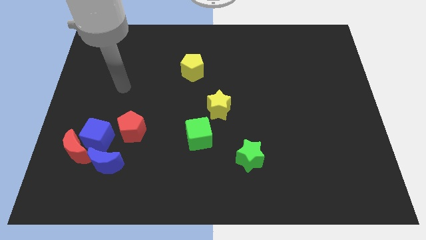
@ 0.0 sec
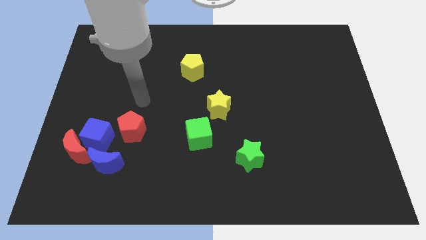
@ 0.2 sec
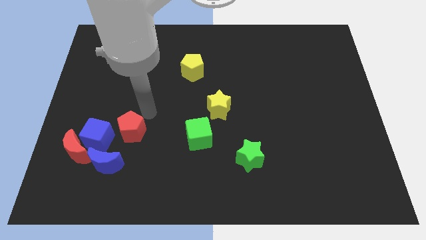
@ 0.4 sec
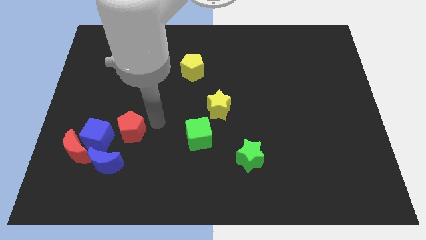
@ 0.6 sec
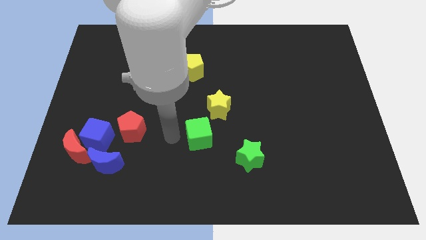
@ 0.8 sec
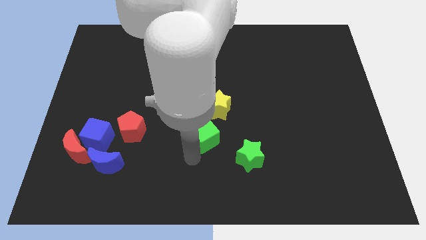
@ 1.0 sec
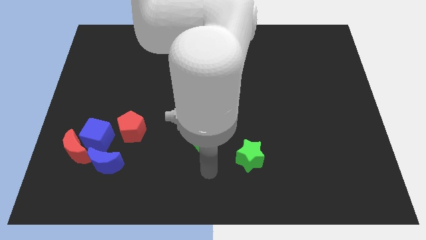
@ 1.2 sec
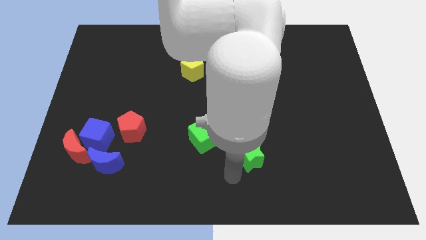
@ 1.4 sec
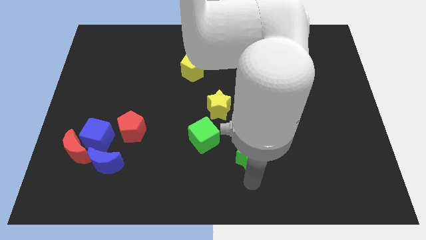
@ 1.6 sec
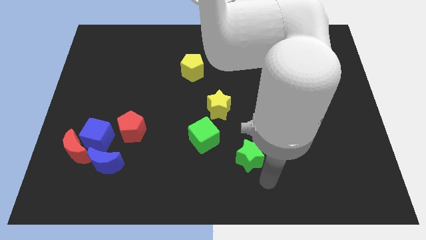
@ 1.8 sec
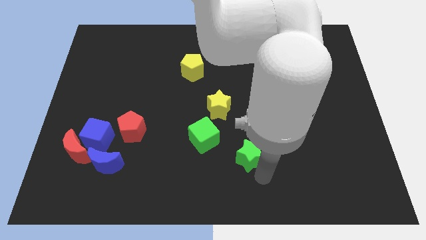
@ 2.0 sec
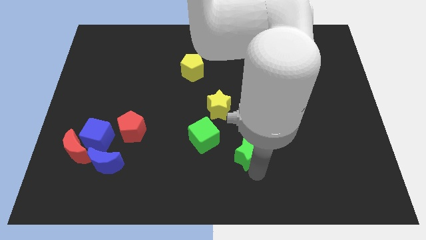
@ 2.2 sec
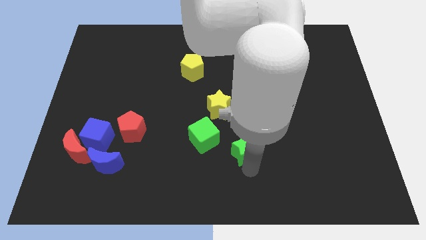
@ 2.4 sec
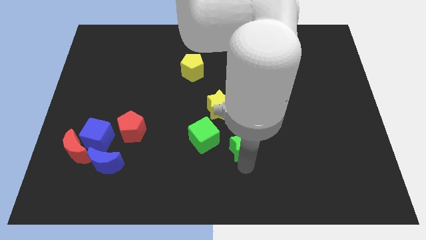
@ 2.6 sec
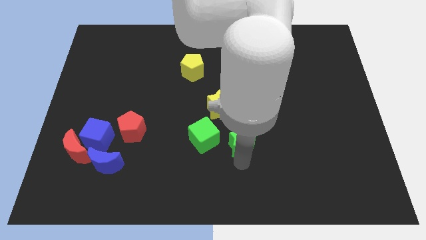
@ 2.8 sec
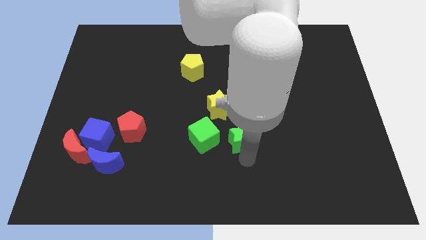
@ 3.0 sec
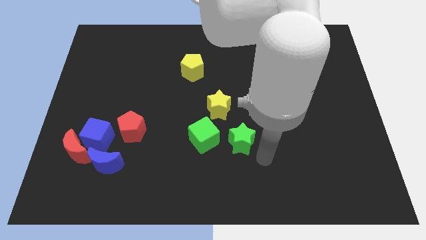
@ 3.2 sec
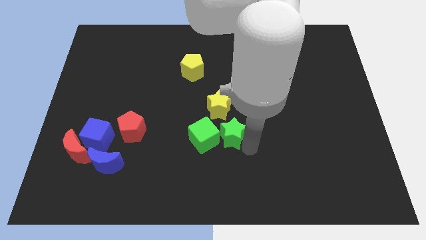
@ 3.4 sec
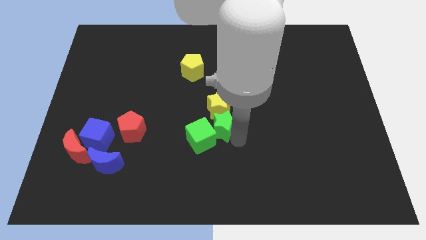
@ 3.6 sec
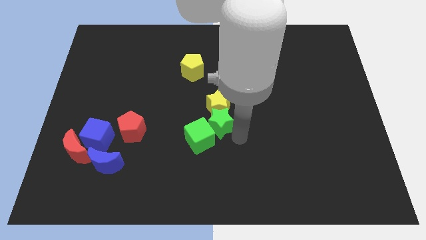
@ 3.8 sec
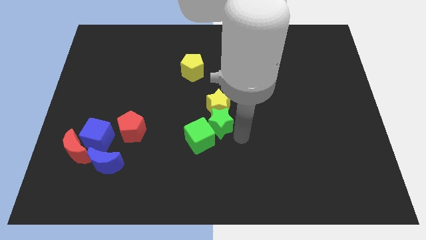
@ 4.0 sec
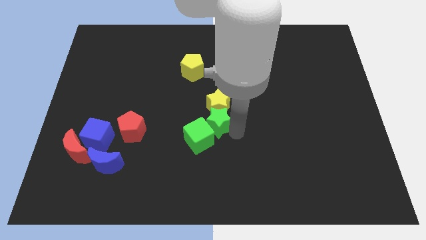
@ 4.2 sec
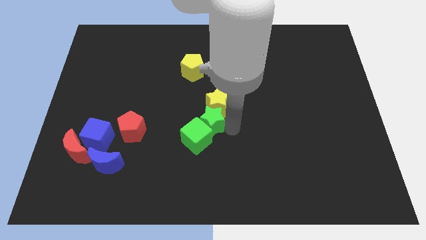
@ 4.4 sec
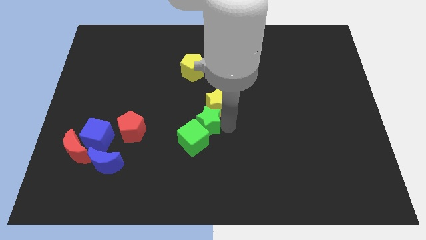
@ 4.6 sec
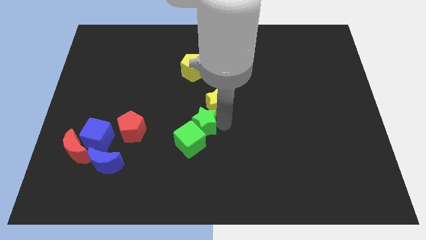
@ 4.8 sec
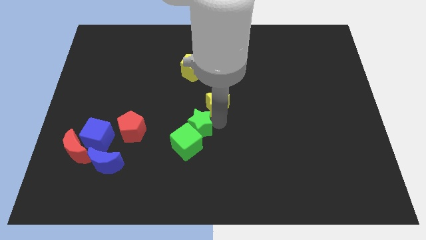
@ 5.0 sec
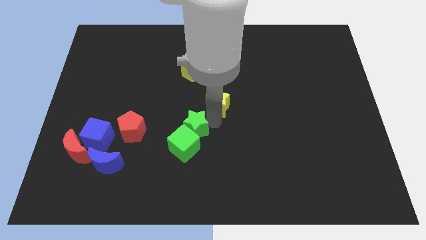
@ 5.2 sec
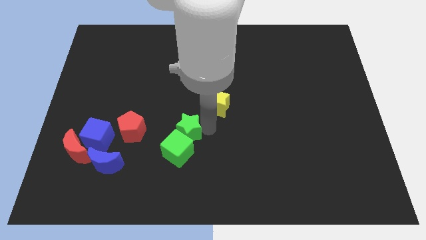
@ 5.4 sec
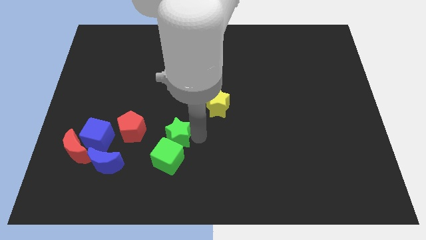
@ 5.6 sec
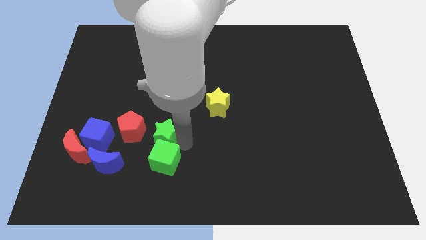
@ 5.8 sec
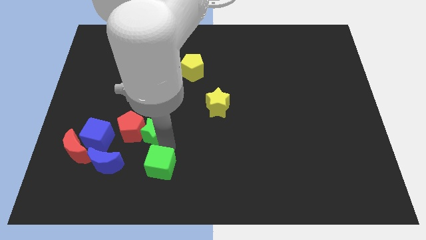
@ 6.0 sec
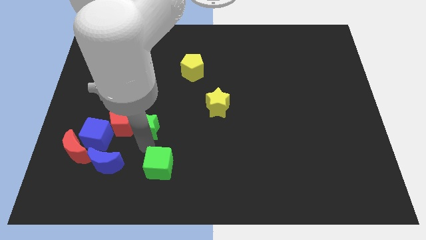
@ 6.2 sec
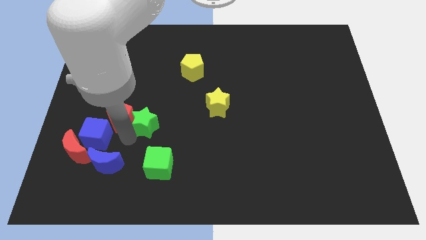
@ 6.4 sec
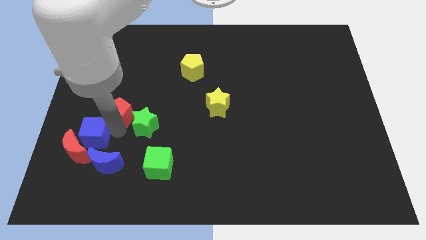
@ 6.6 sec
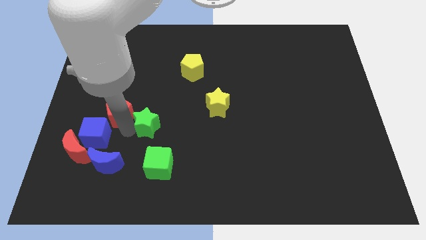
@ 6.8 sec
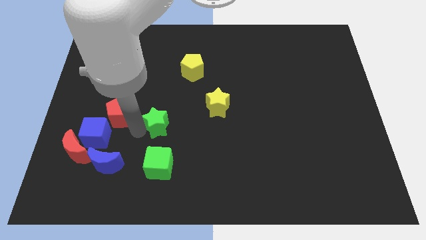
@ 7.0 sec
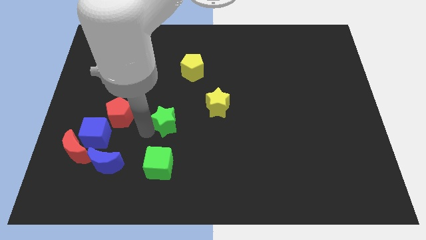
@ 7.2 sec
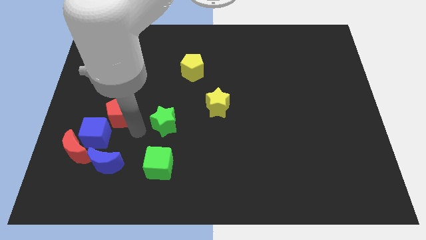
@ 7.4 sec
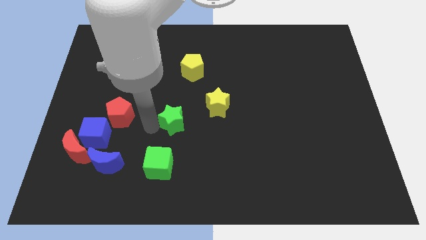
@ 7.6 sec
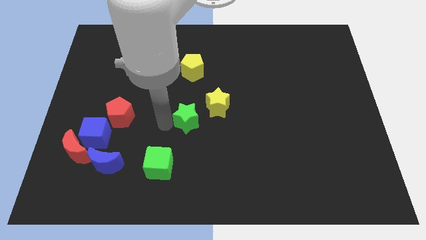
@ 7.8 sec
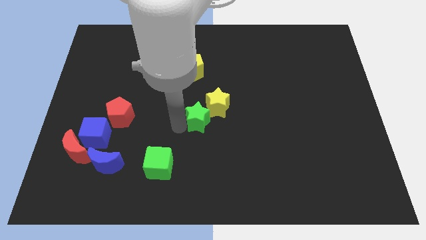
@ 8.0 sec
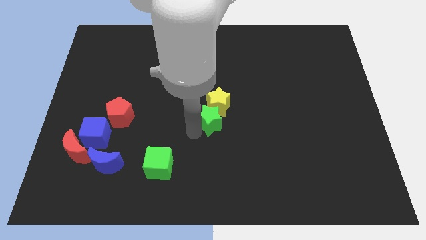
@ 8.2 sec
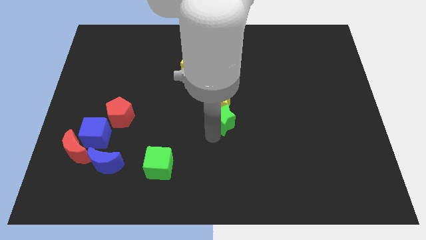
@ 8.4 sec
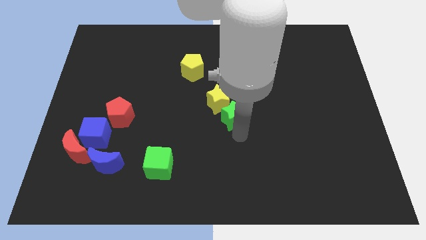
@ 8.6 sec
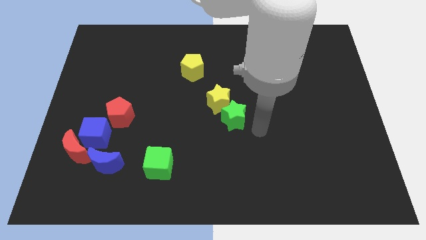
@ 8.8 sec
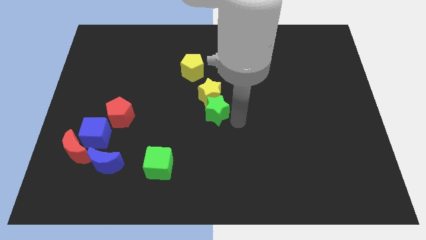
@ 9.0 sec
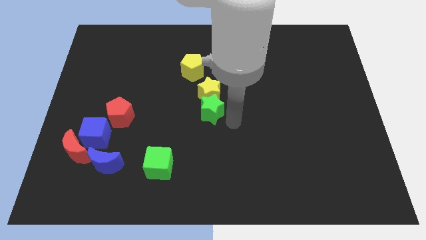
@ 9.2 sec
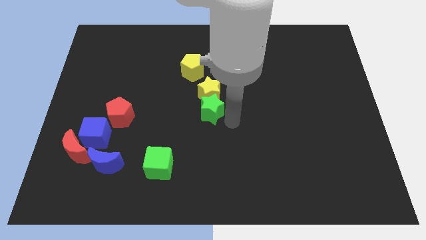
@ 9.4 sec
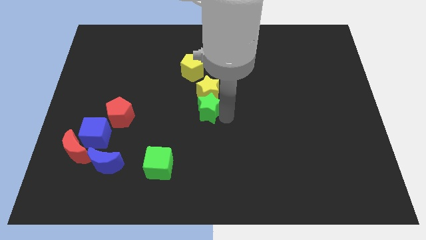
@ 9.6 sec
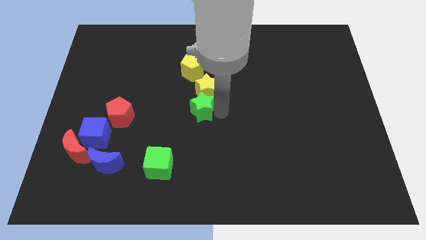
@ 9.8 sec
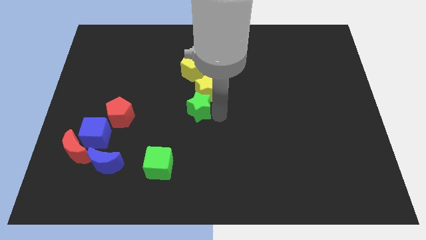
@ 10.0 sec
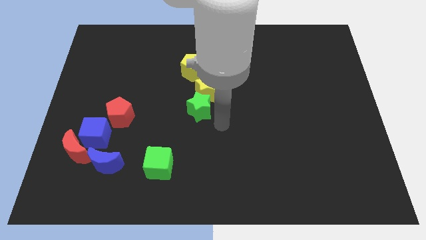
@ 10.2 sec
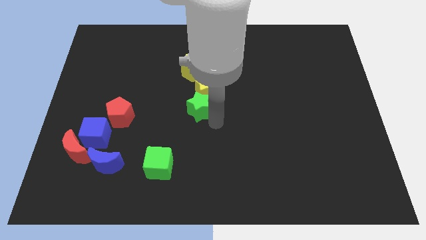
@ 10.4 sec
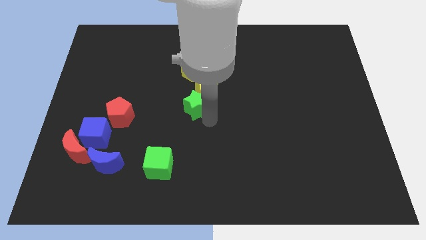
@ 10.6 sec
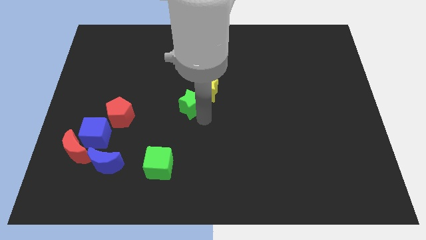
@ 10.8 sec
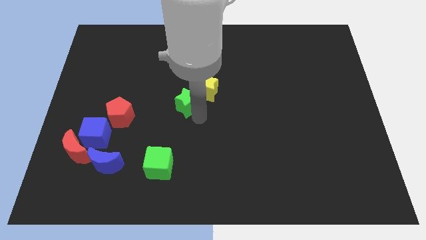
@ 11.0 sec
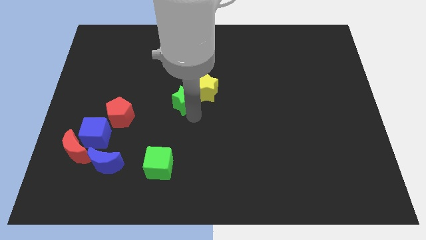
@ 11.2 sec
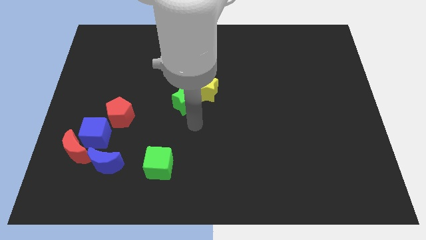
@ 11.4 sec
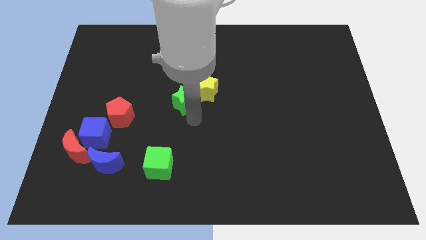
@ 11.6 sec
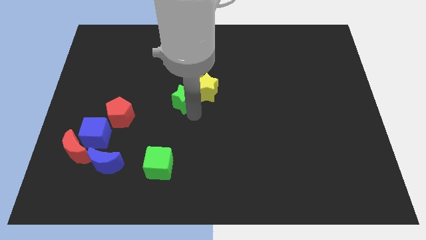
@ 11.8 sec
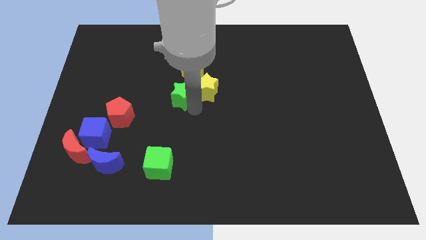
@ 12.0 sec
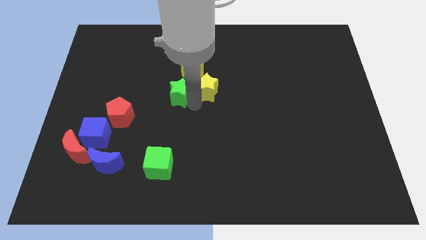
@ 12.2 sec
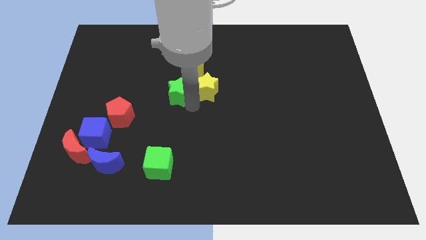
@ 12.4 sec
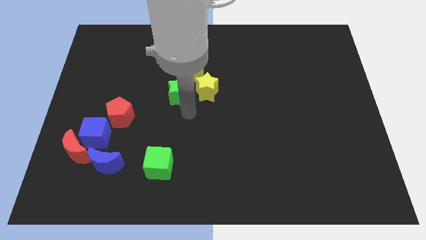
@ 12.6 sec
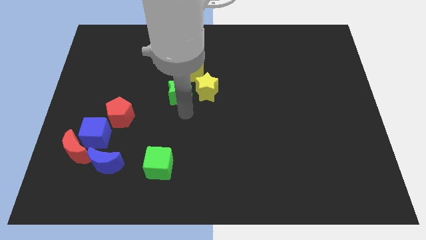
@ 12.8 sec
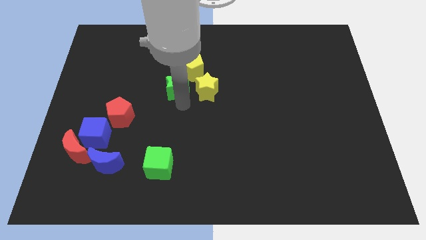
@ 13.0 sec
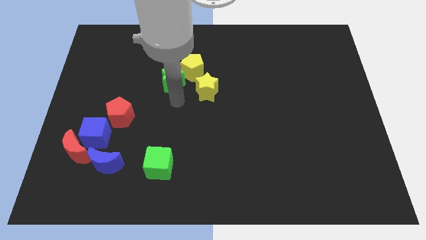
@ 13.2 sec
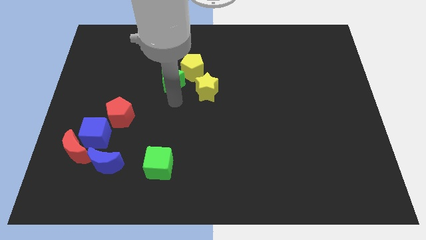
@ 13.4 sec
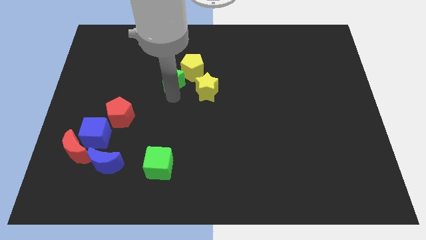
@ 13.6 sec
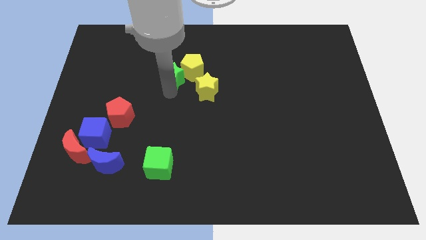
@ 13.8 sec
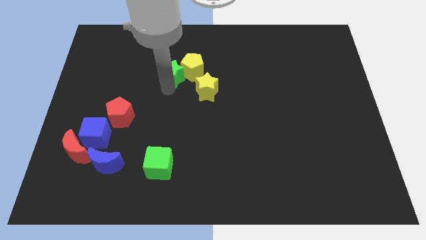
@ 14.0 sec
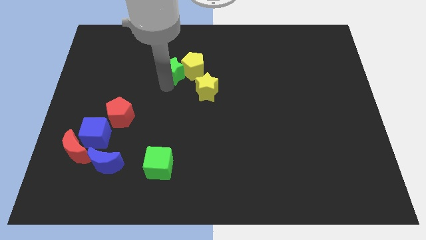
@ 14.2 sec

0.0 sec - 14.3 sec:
move the green star to the top left of the yellow pentagon
